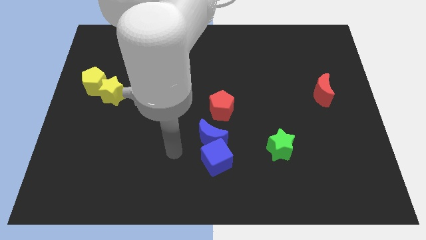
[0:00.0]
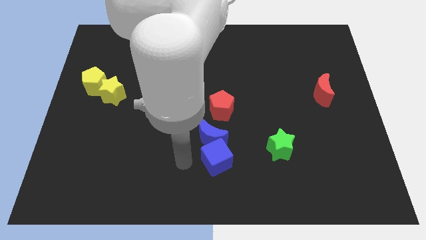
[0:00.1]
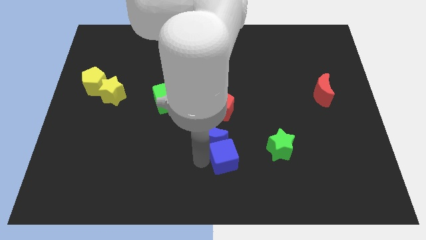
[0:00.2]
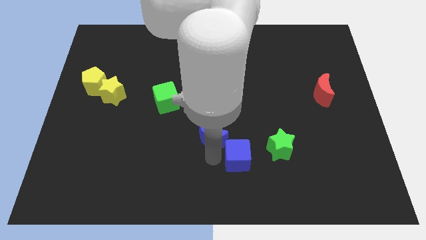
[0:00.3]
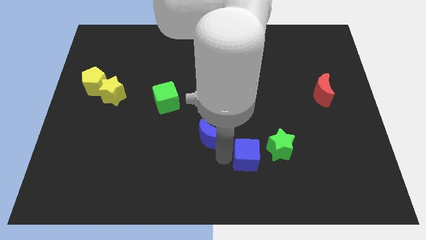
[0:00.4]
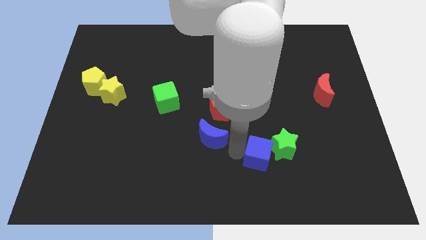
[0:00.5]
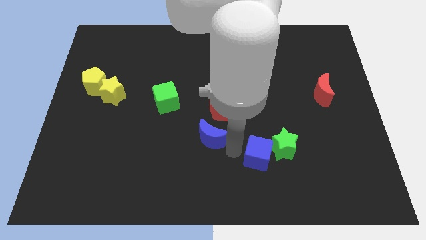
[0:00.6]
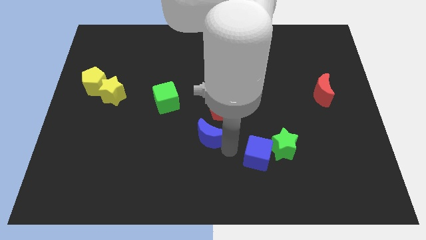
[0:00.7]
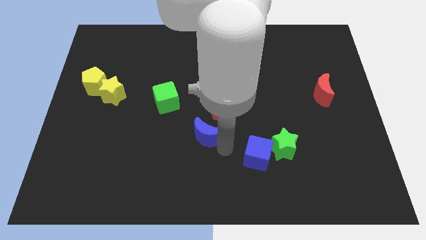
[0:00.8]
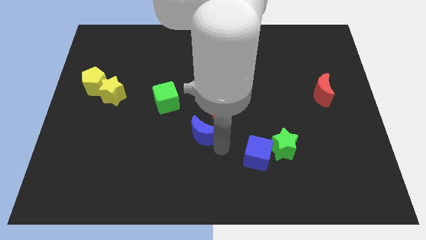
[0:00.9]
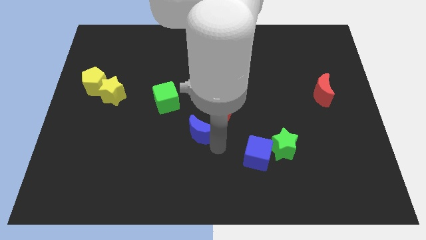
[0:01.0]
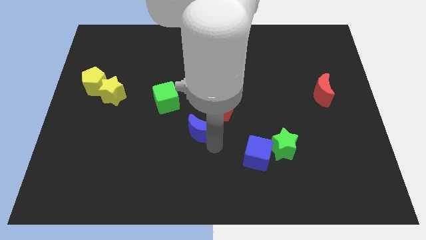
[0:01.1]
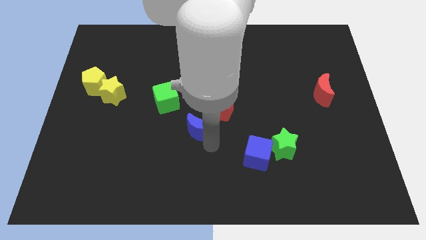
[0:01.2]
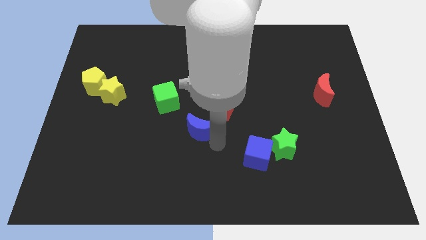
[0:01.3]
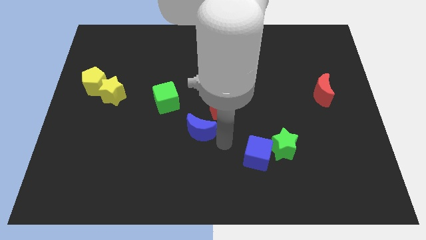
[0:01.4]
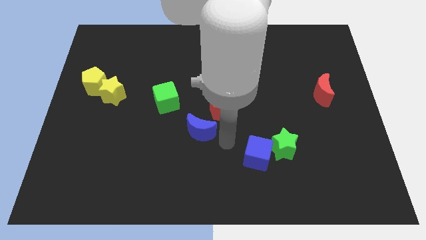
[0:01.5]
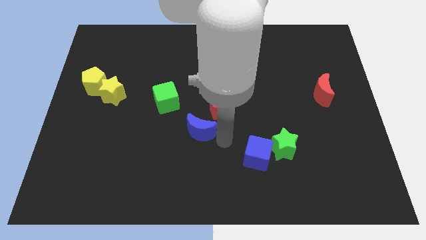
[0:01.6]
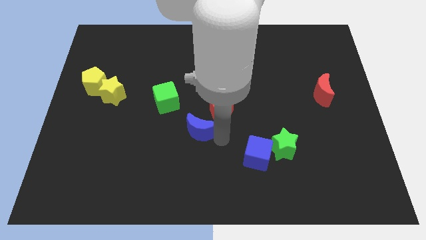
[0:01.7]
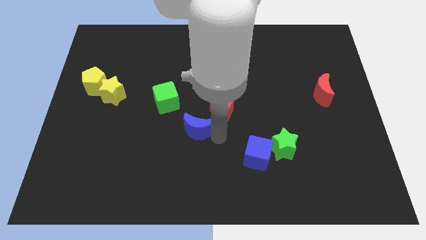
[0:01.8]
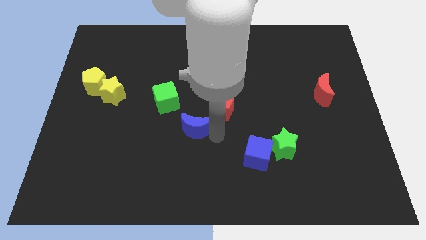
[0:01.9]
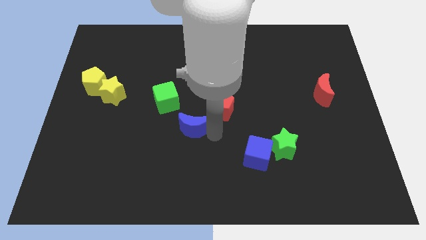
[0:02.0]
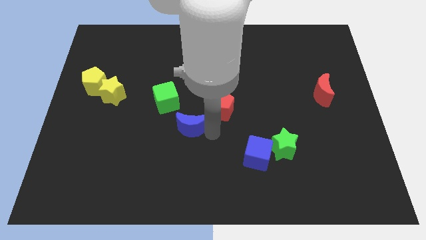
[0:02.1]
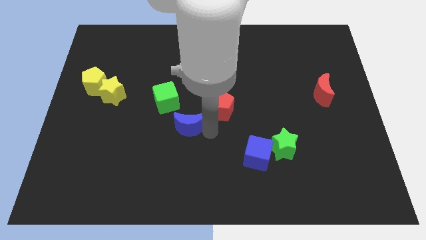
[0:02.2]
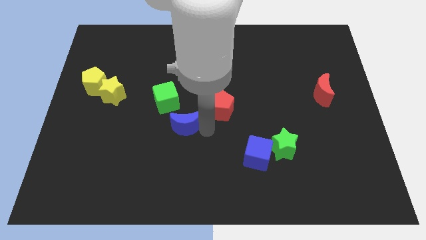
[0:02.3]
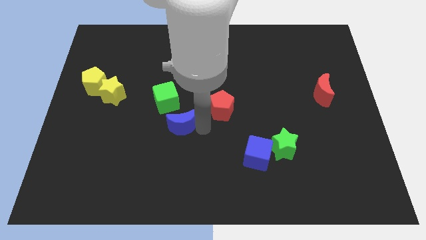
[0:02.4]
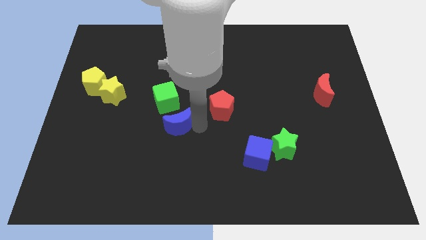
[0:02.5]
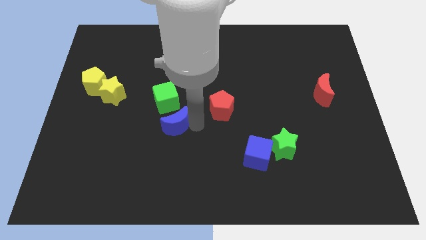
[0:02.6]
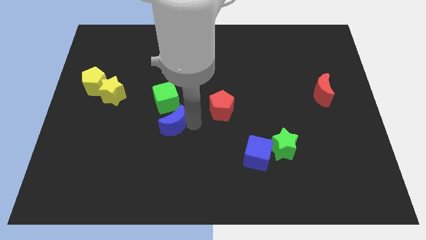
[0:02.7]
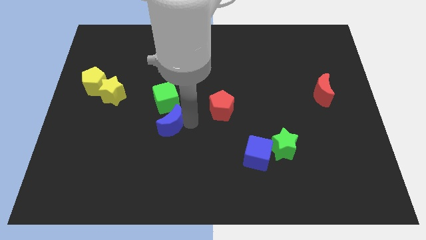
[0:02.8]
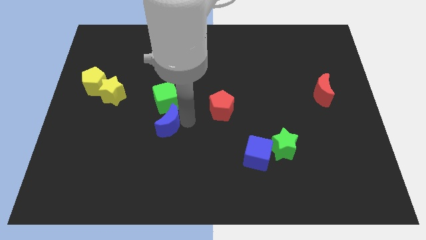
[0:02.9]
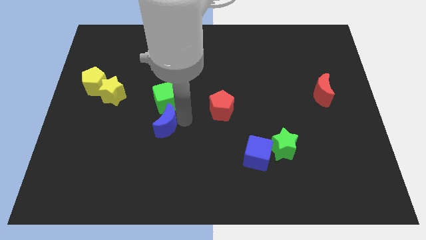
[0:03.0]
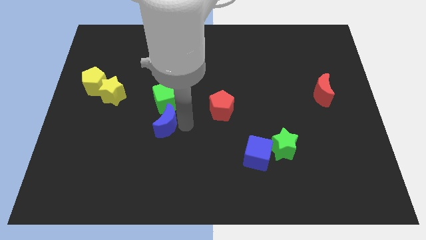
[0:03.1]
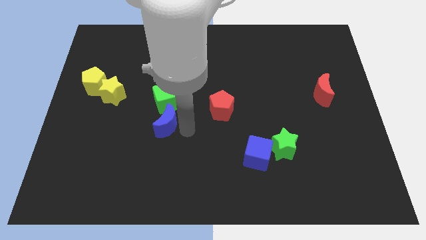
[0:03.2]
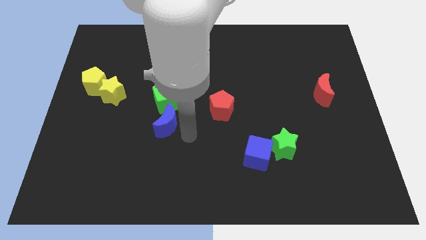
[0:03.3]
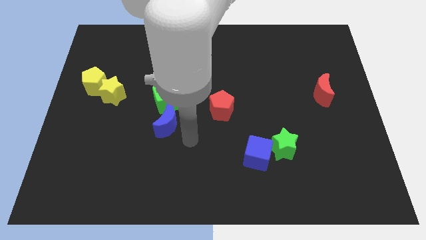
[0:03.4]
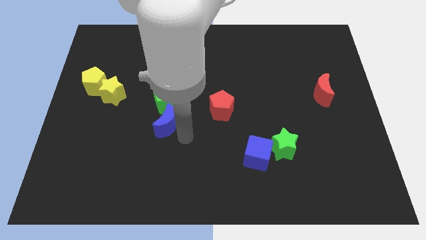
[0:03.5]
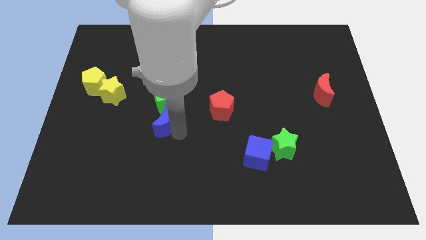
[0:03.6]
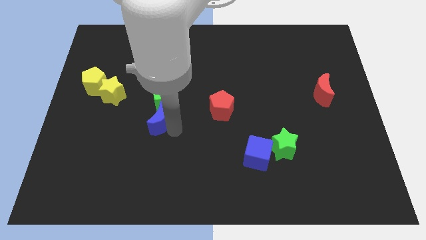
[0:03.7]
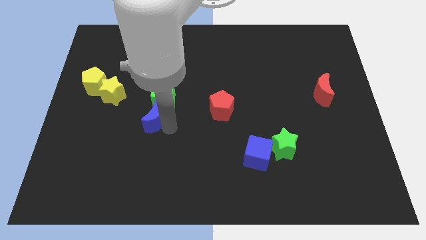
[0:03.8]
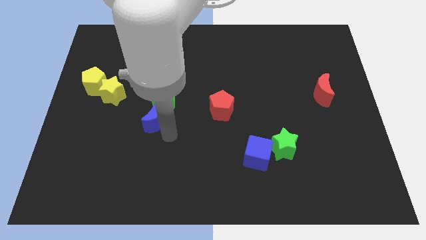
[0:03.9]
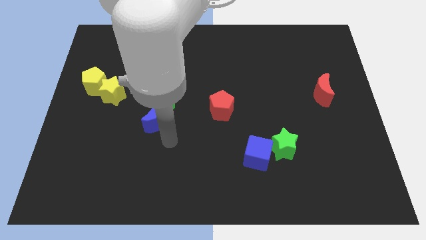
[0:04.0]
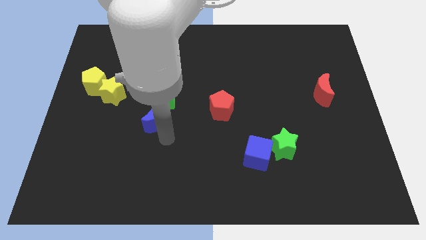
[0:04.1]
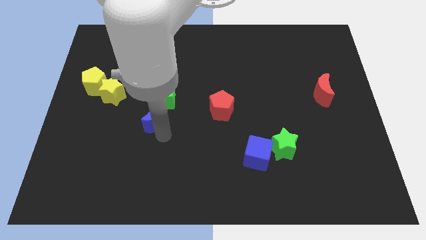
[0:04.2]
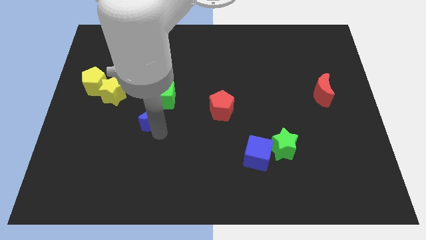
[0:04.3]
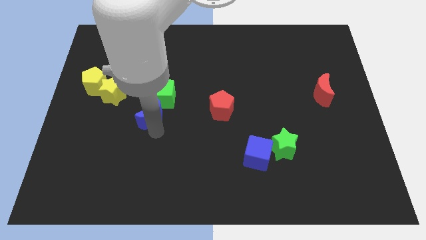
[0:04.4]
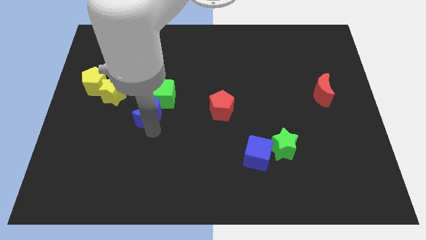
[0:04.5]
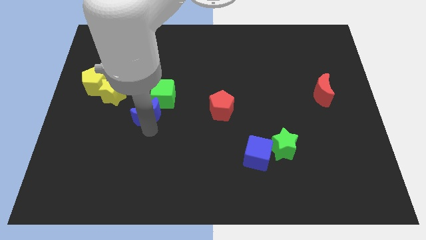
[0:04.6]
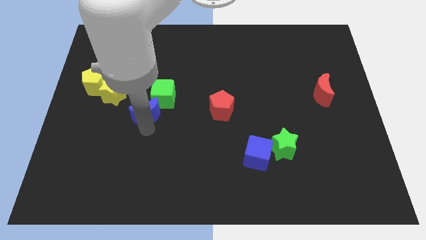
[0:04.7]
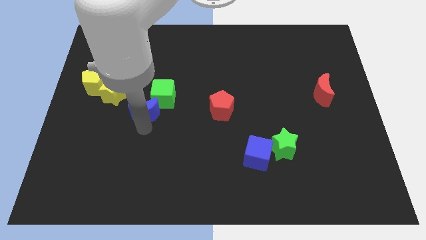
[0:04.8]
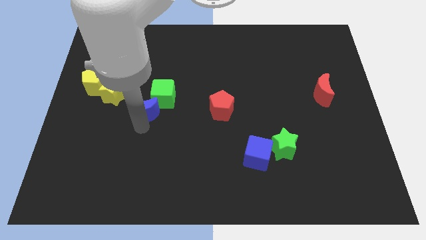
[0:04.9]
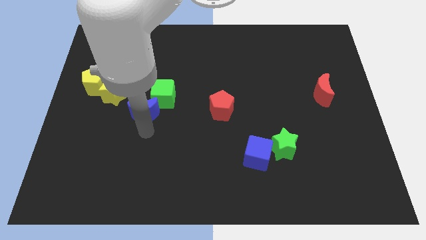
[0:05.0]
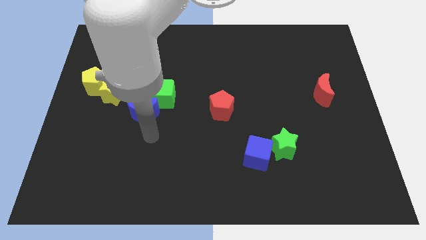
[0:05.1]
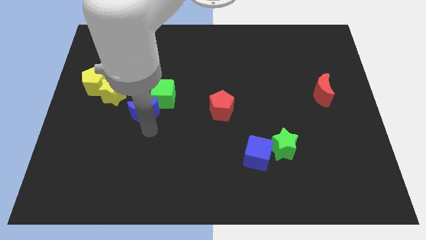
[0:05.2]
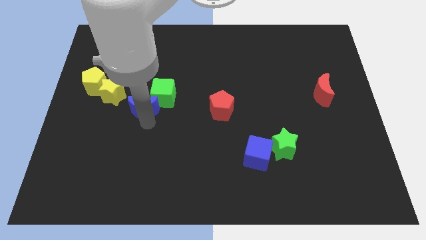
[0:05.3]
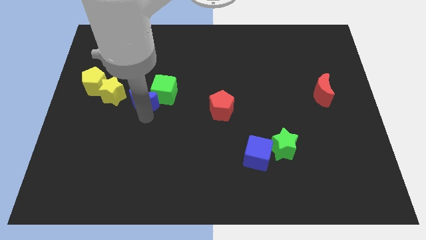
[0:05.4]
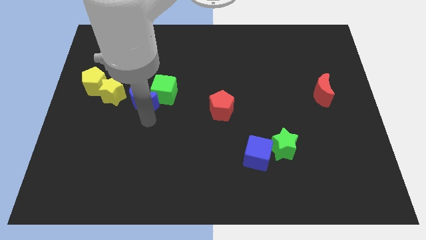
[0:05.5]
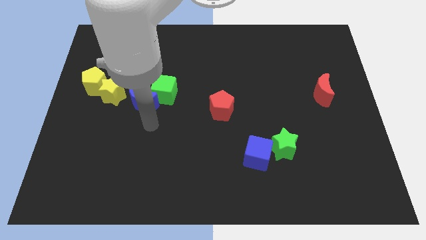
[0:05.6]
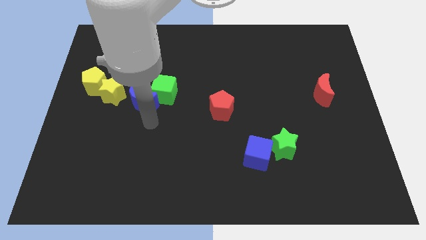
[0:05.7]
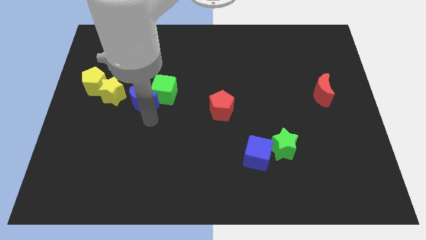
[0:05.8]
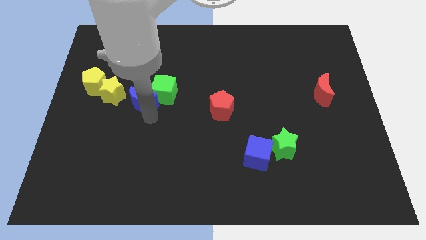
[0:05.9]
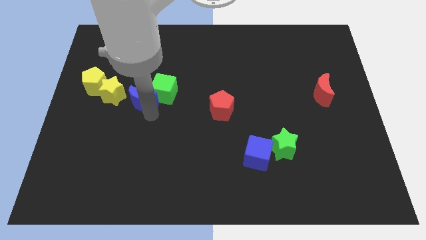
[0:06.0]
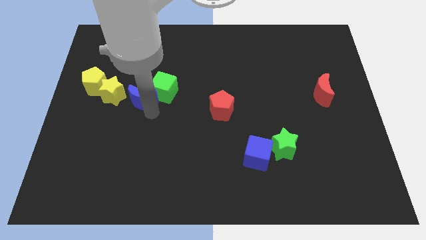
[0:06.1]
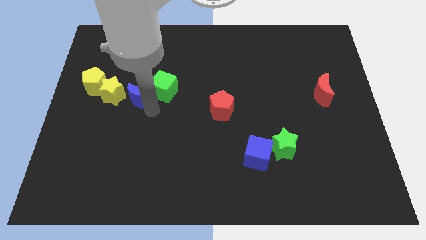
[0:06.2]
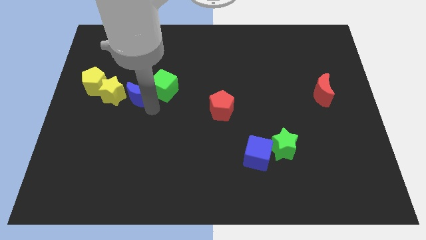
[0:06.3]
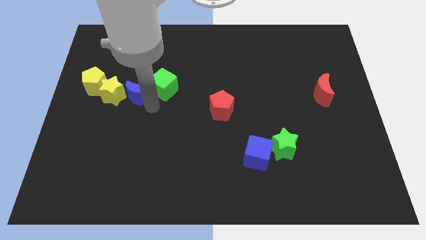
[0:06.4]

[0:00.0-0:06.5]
slide the blue moon upwards and then left

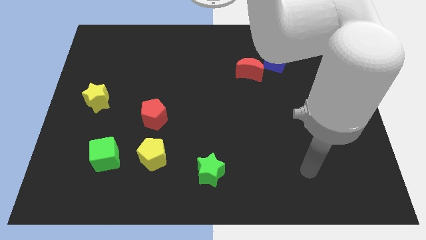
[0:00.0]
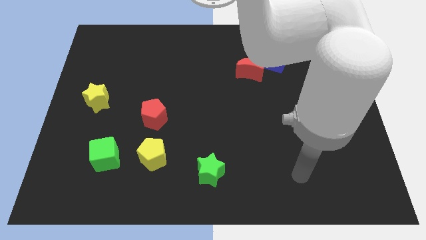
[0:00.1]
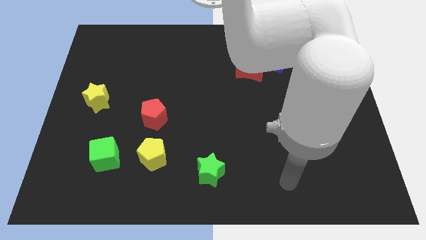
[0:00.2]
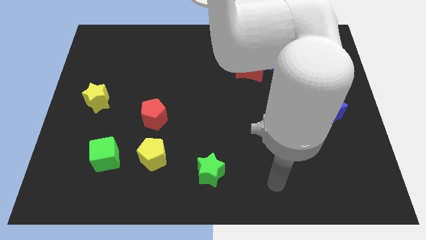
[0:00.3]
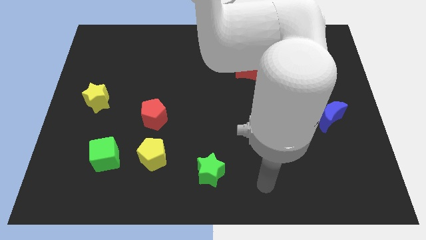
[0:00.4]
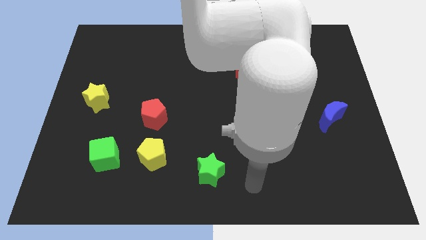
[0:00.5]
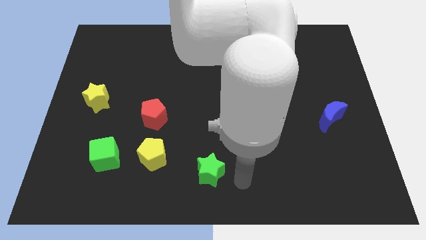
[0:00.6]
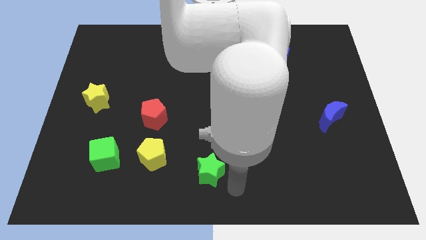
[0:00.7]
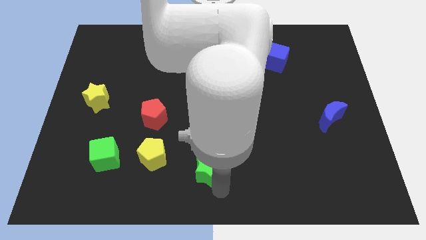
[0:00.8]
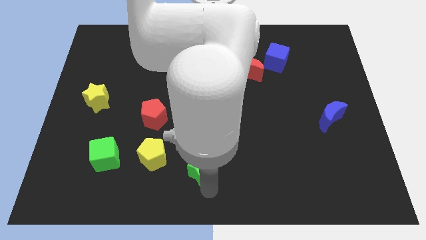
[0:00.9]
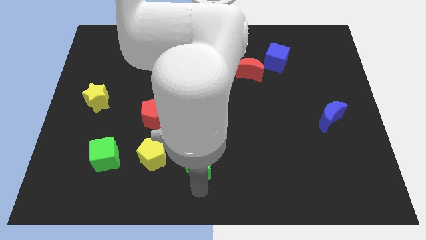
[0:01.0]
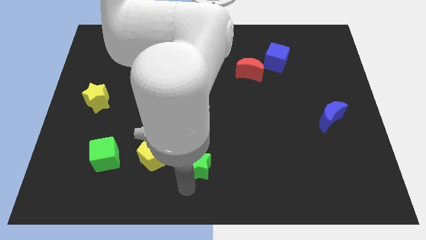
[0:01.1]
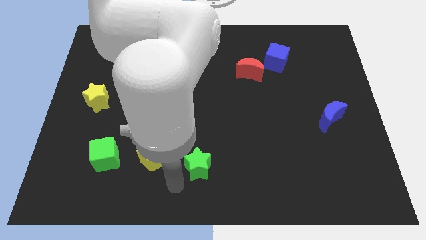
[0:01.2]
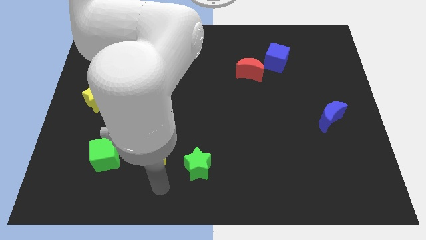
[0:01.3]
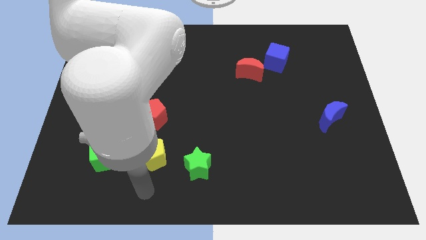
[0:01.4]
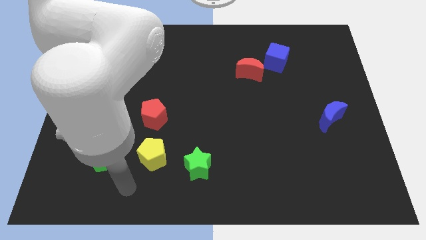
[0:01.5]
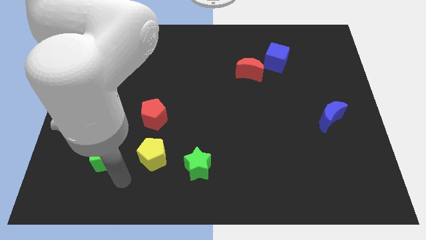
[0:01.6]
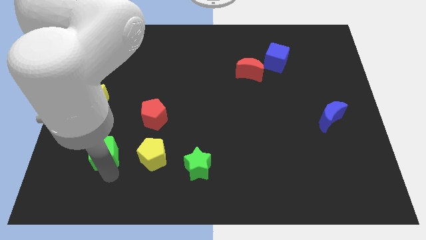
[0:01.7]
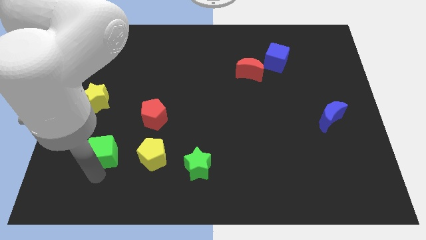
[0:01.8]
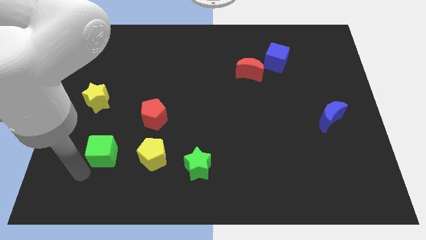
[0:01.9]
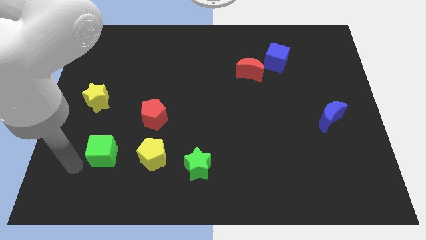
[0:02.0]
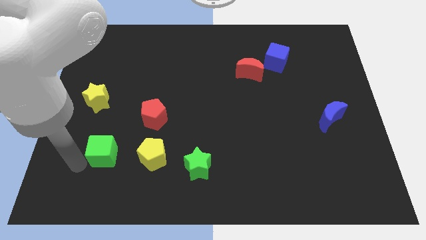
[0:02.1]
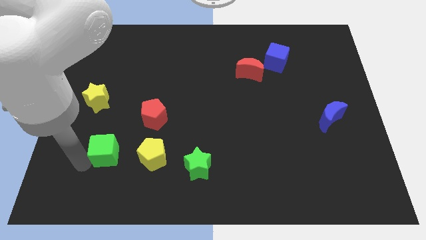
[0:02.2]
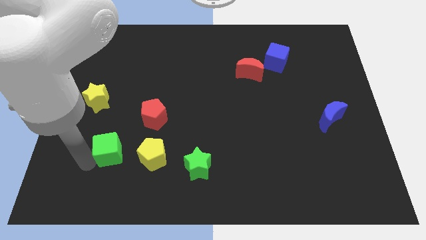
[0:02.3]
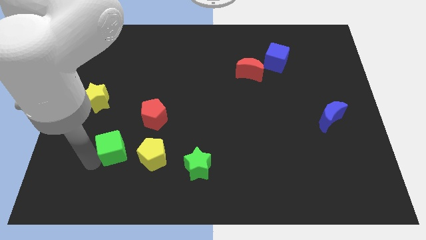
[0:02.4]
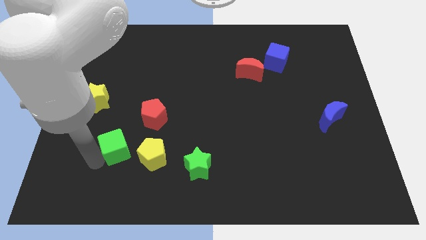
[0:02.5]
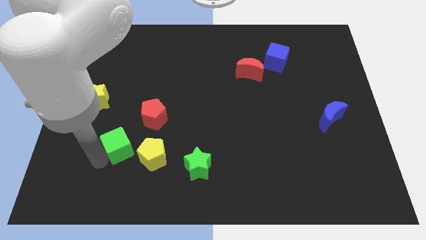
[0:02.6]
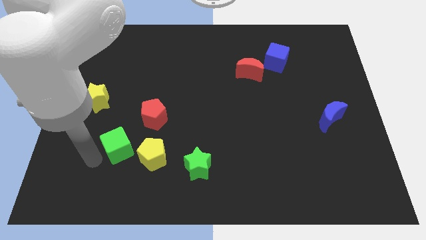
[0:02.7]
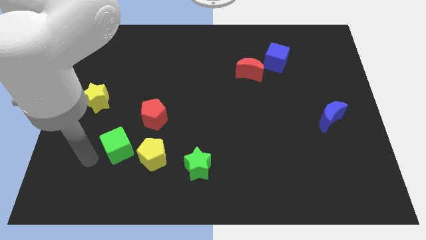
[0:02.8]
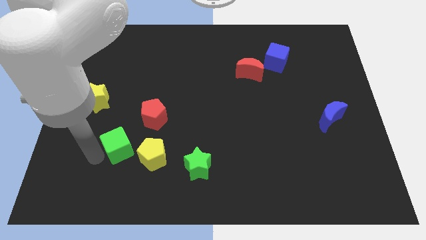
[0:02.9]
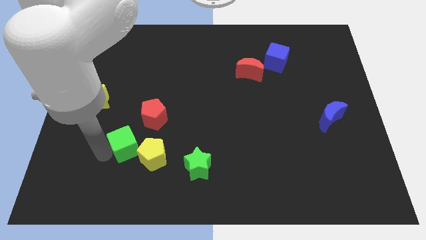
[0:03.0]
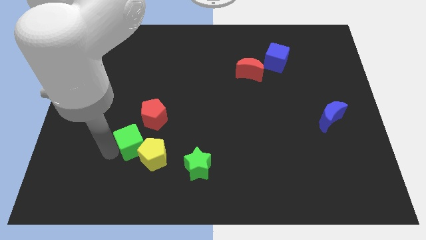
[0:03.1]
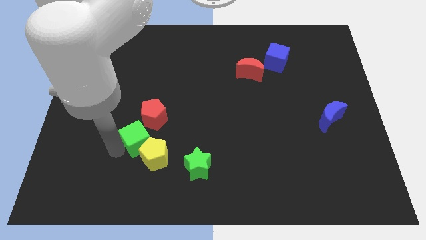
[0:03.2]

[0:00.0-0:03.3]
move the green cube somewhat diagonally up and right
